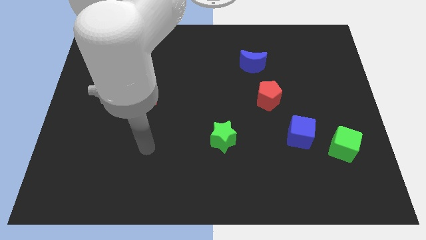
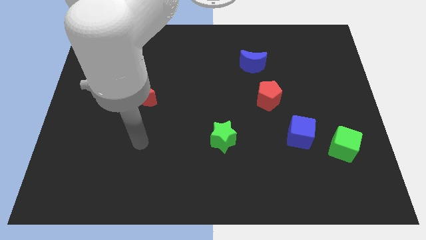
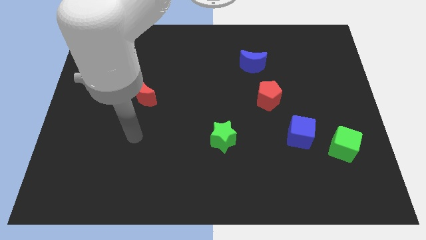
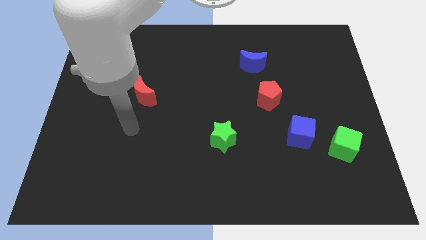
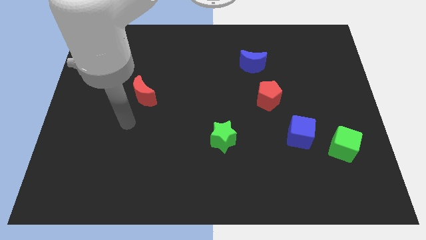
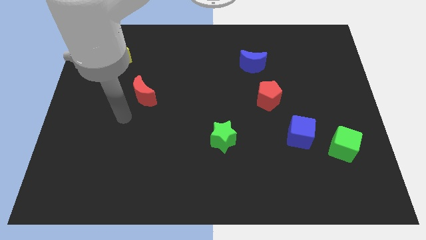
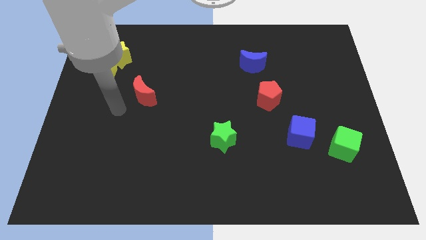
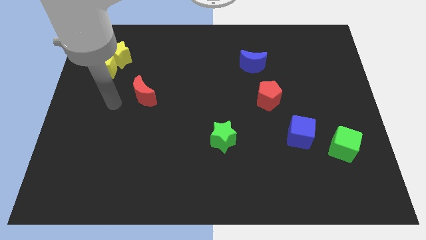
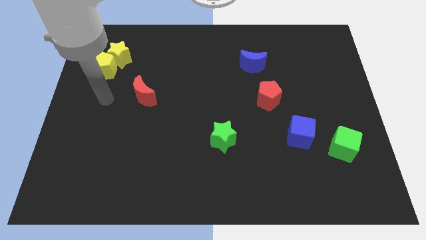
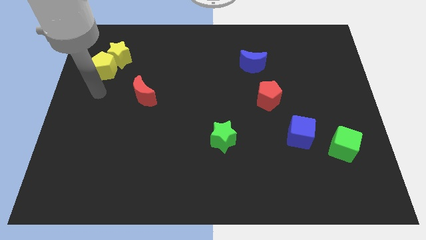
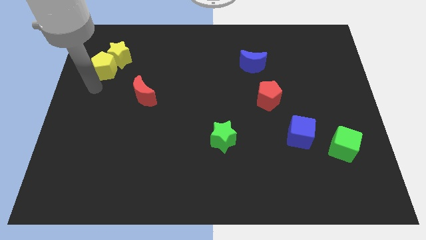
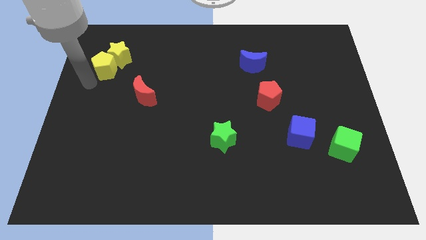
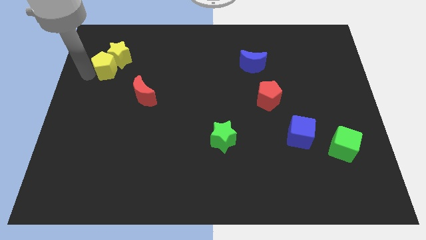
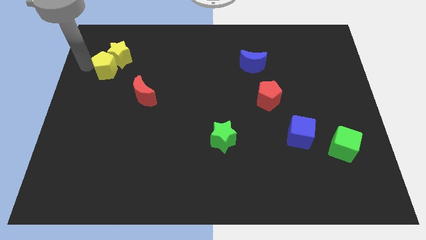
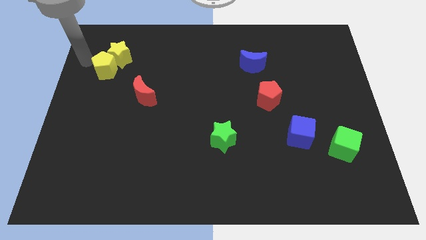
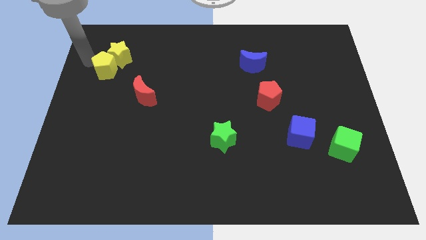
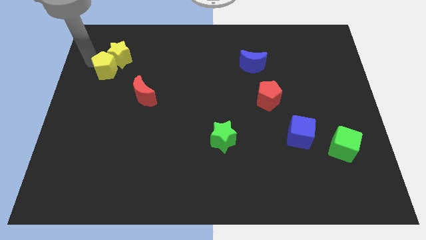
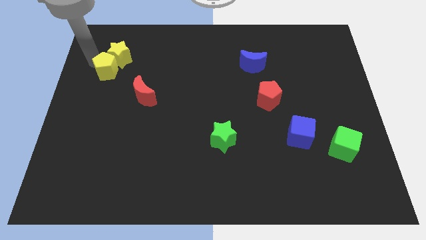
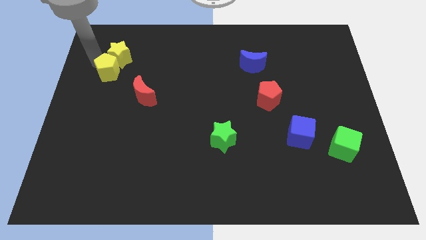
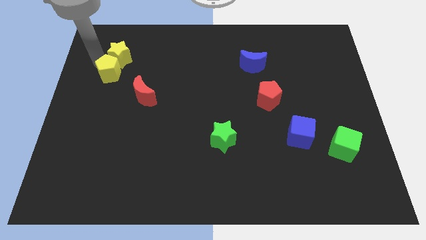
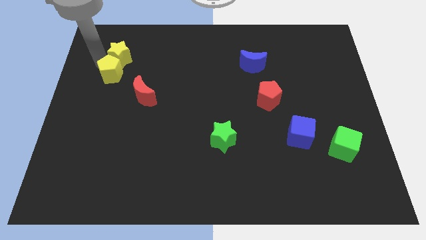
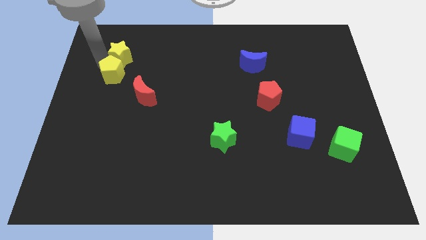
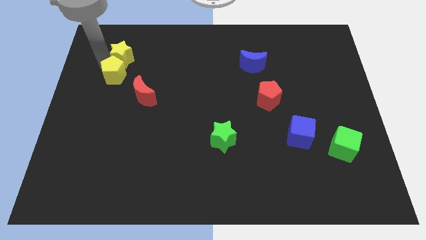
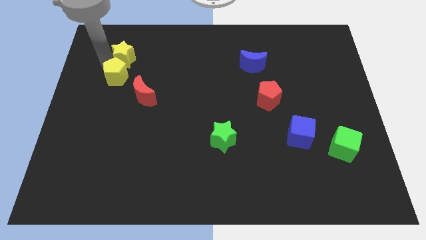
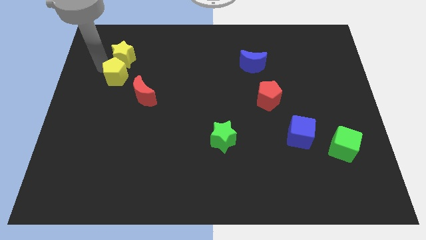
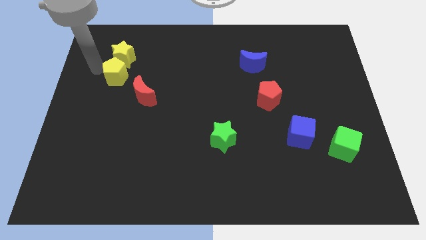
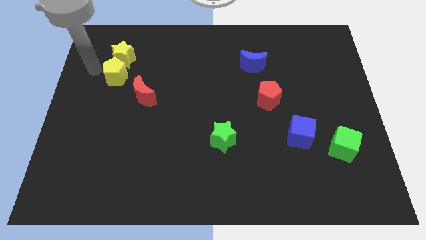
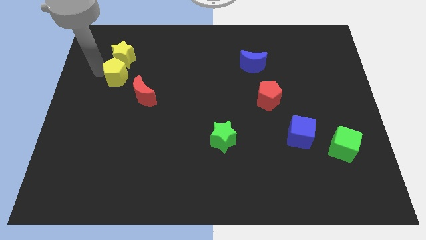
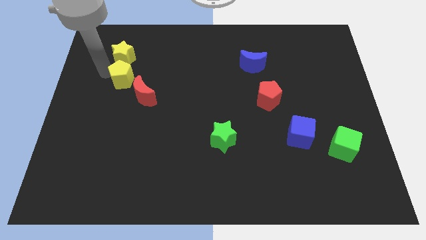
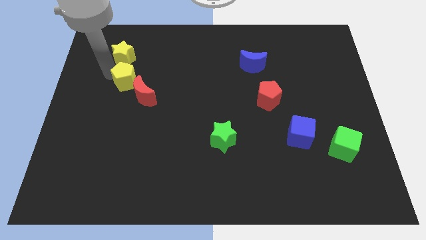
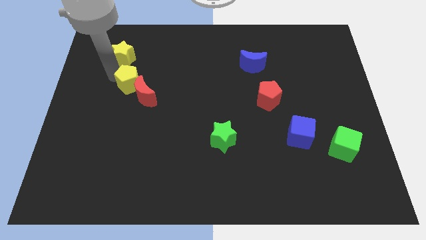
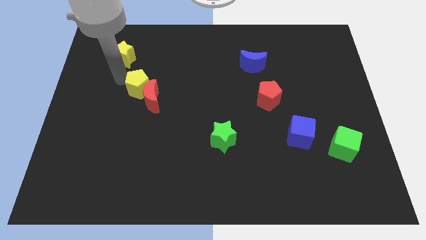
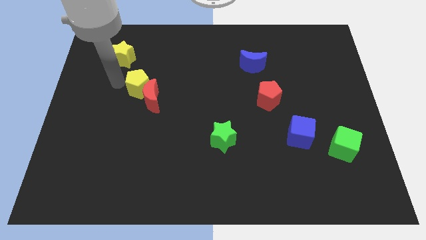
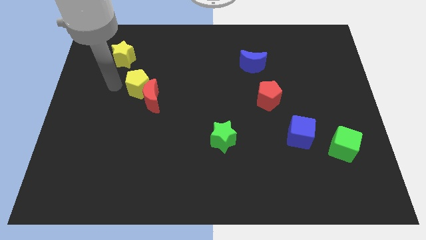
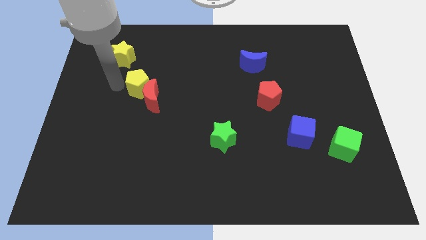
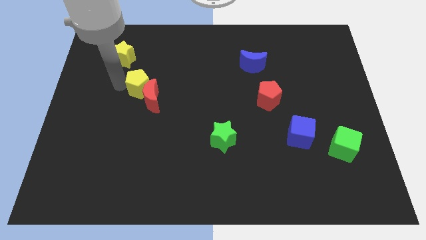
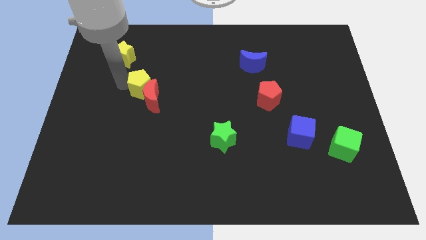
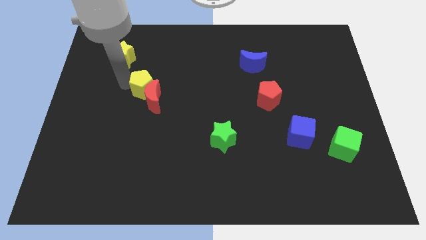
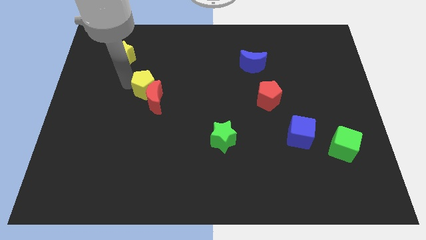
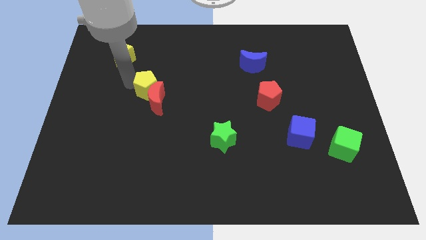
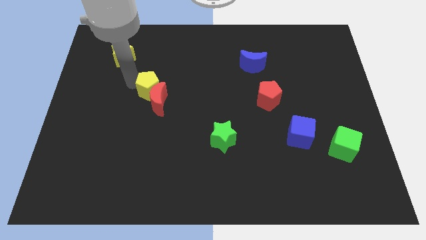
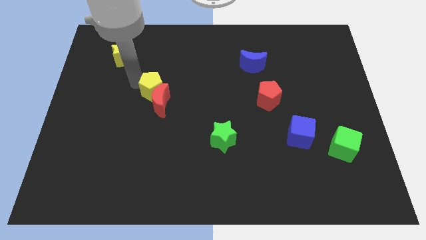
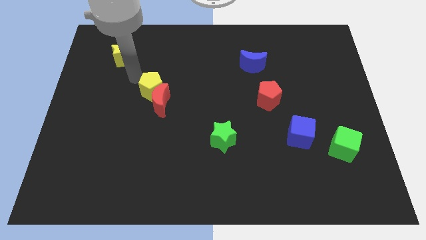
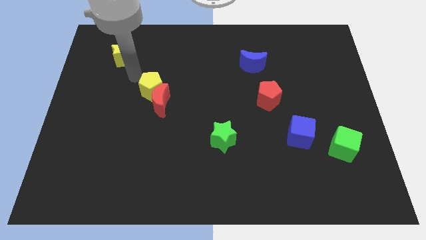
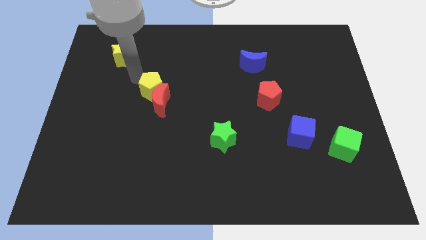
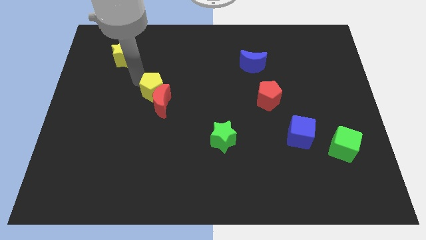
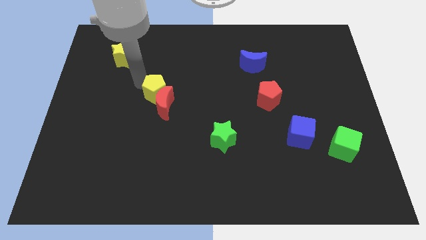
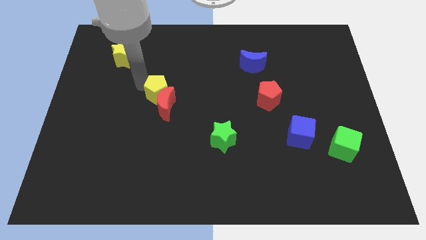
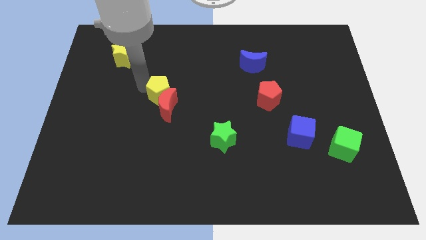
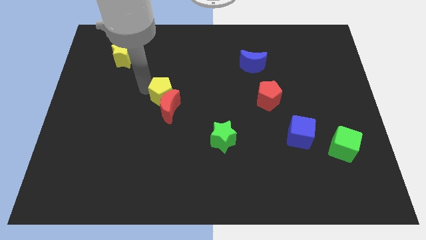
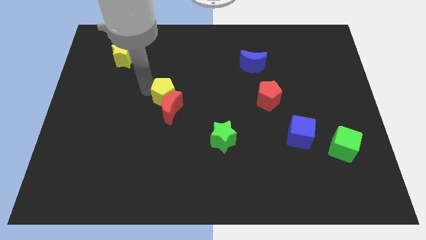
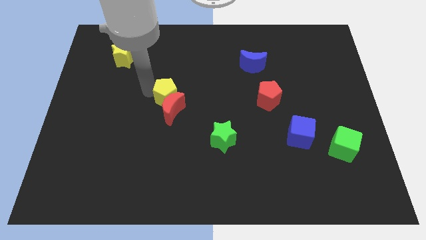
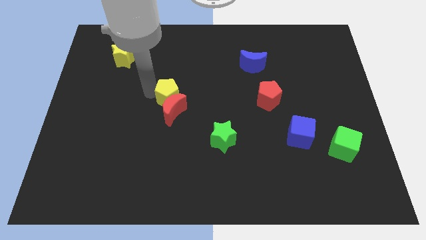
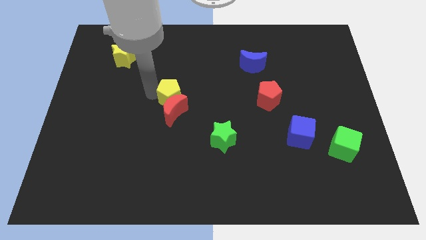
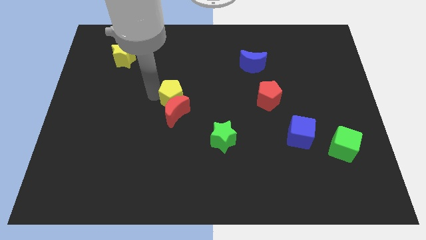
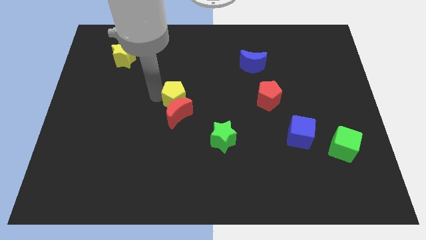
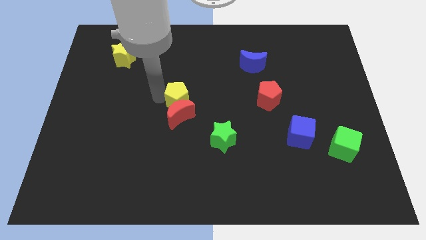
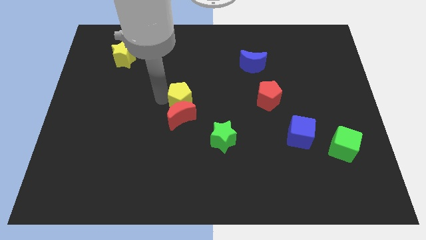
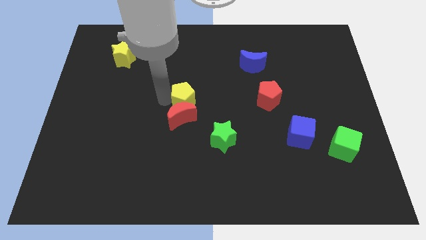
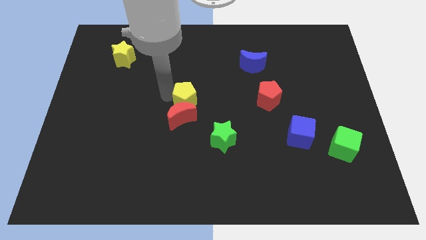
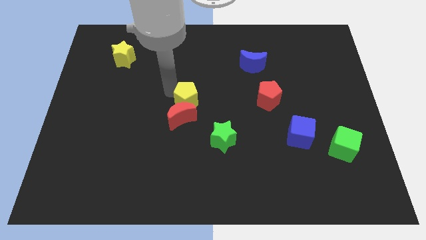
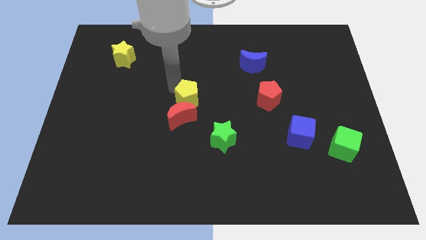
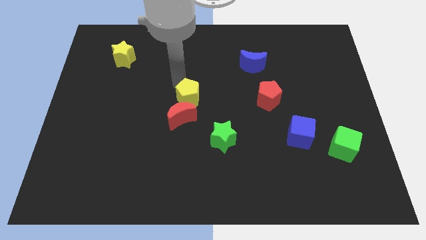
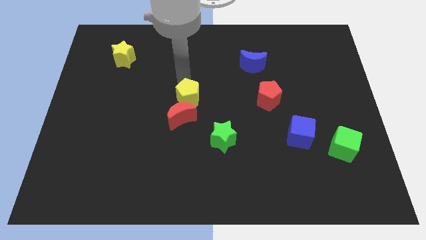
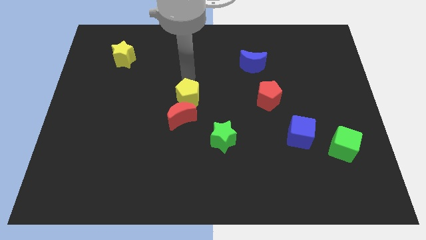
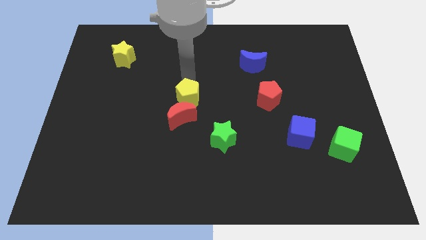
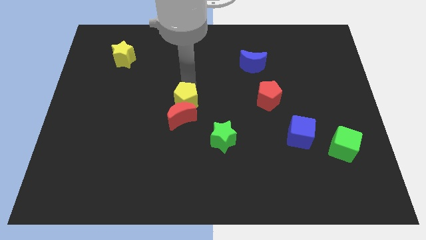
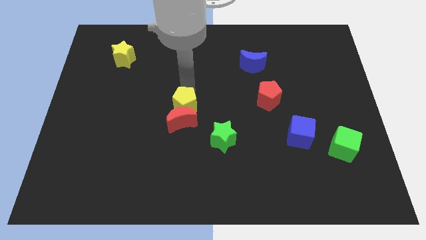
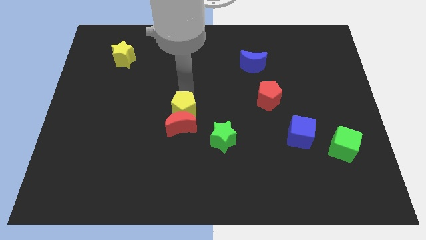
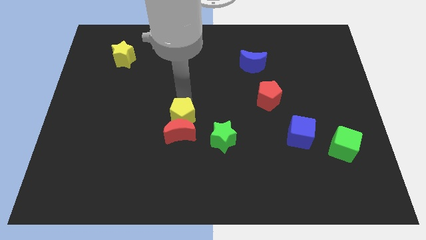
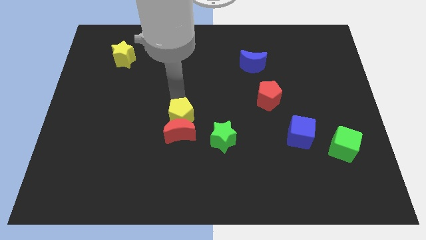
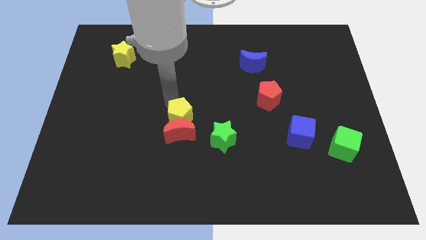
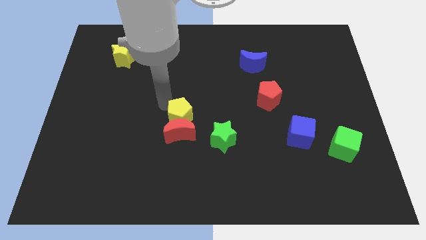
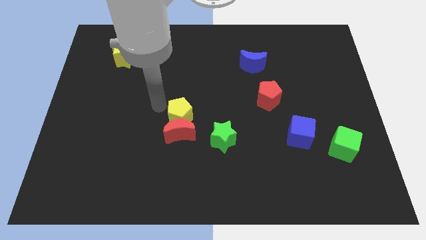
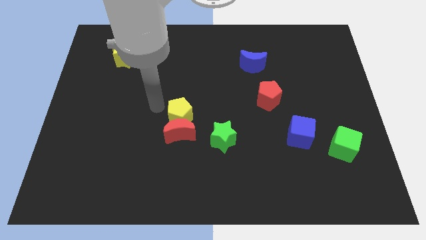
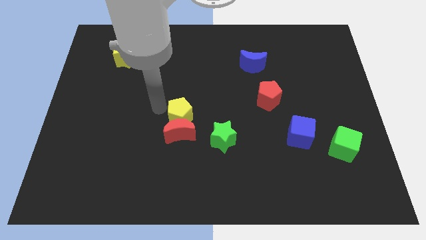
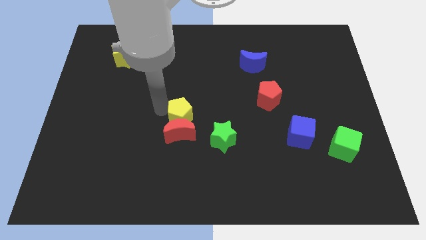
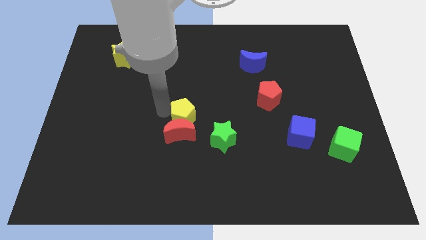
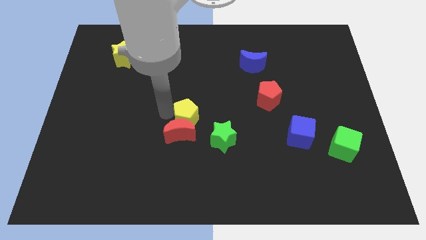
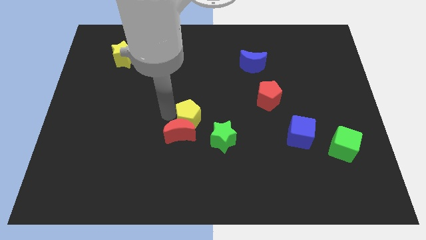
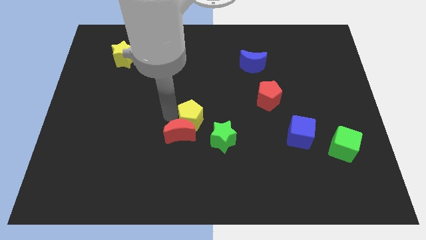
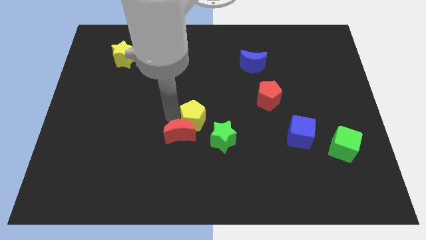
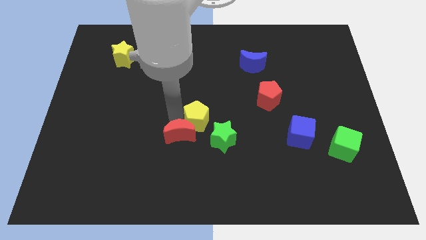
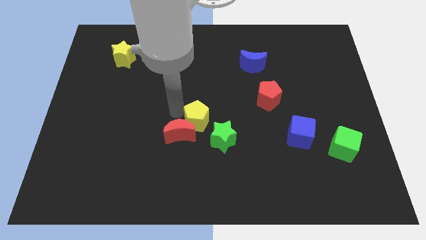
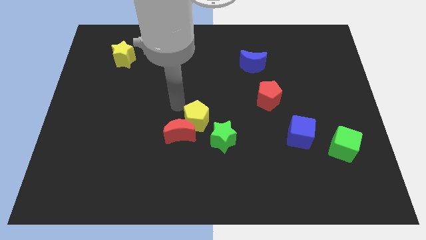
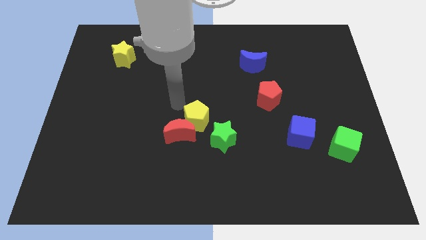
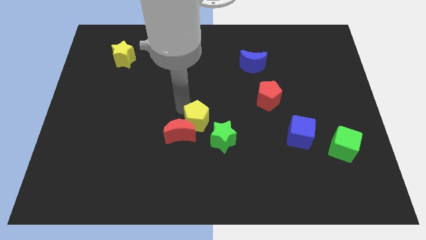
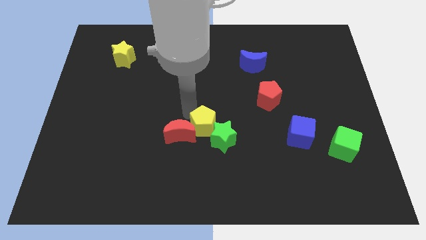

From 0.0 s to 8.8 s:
slide the yellow pentagon close to the green star
